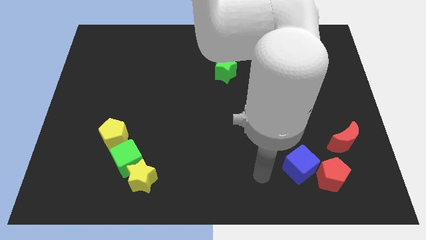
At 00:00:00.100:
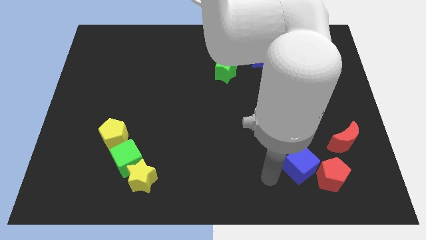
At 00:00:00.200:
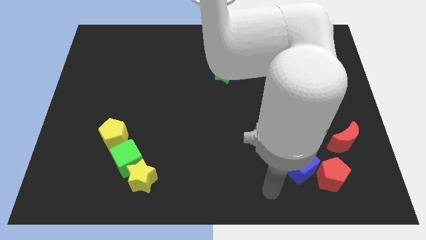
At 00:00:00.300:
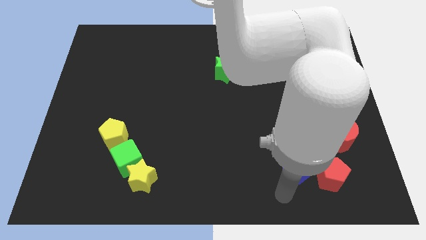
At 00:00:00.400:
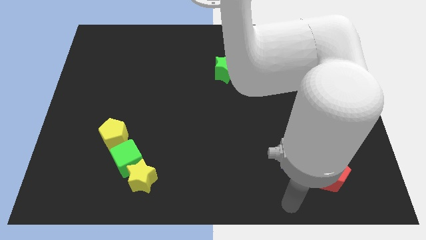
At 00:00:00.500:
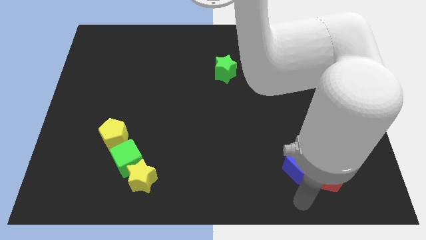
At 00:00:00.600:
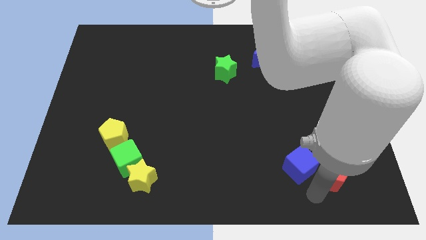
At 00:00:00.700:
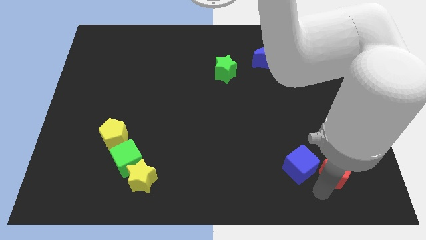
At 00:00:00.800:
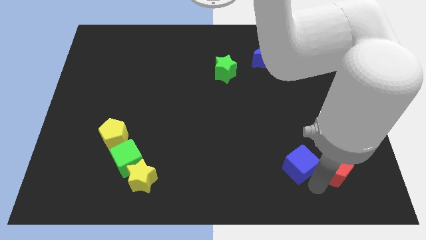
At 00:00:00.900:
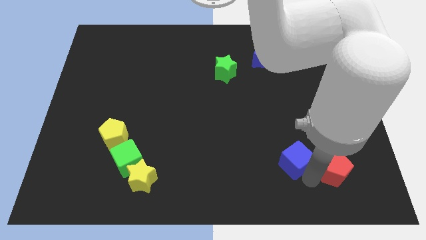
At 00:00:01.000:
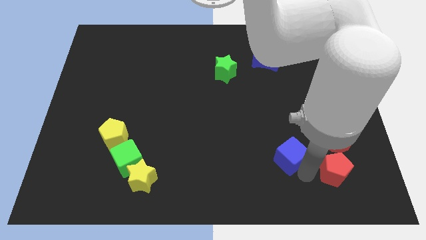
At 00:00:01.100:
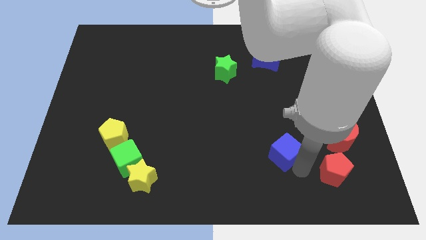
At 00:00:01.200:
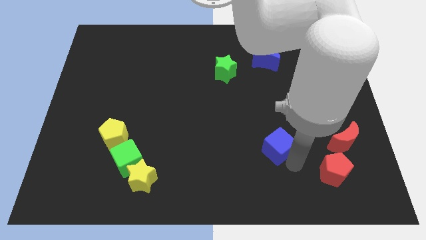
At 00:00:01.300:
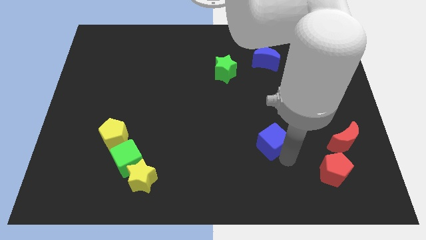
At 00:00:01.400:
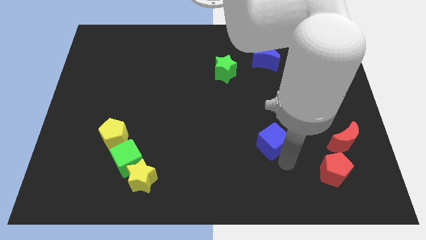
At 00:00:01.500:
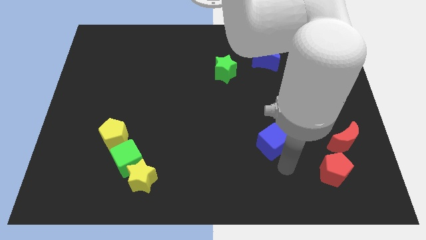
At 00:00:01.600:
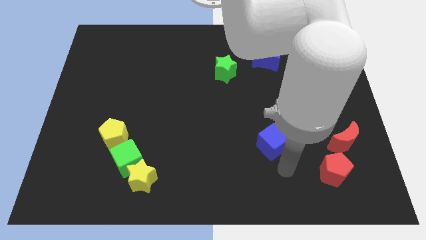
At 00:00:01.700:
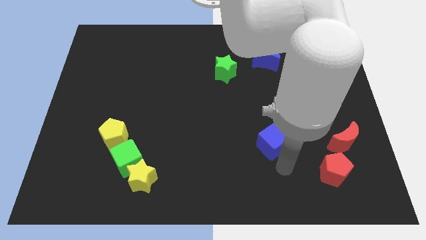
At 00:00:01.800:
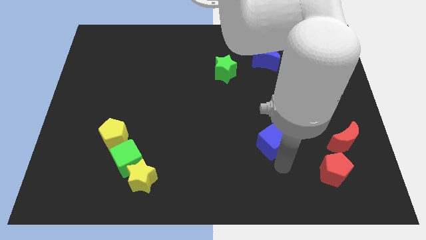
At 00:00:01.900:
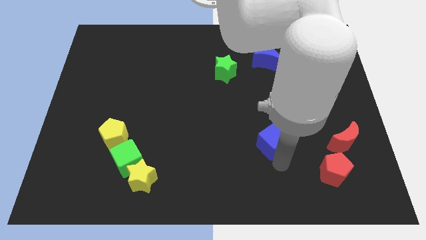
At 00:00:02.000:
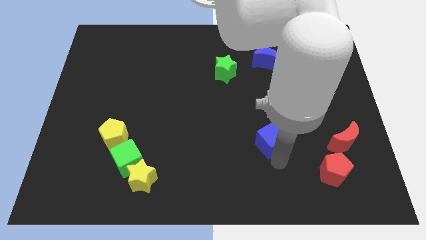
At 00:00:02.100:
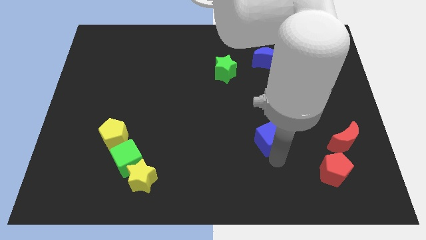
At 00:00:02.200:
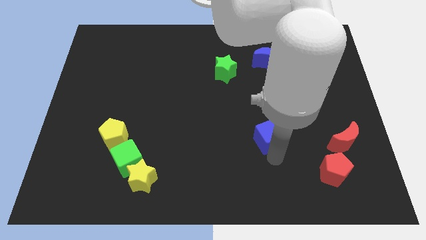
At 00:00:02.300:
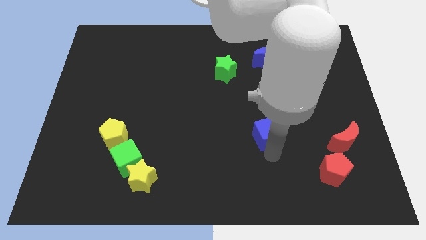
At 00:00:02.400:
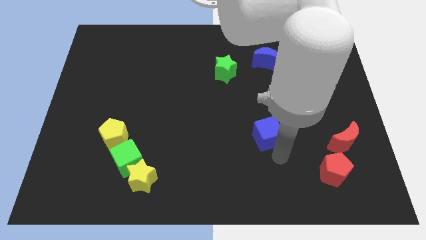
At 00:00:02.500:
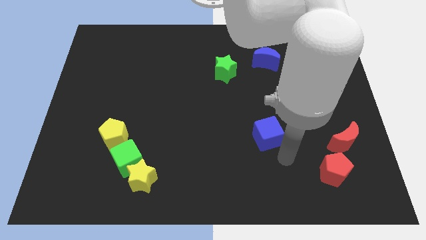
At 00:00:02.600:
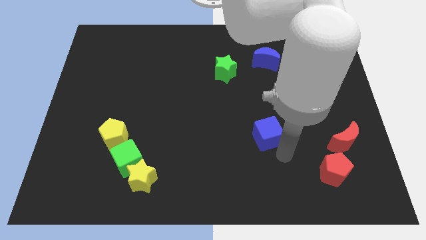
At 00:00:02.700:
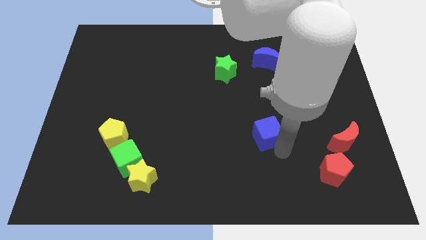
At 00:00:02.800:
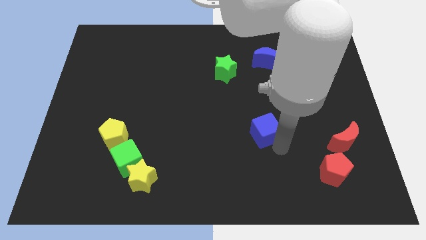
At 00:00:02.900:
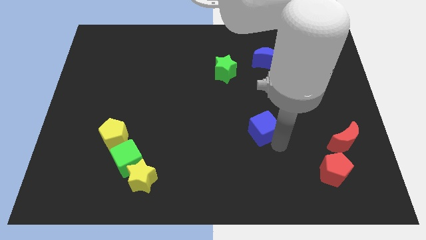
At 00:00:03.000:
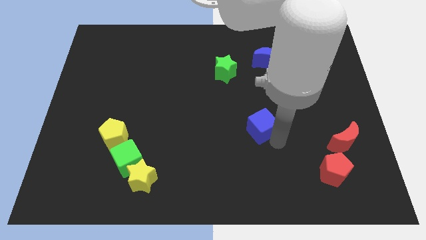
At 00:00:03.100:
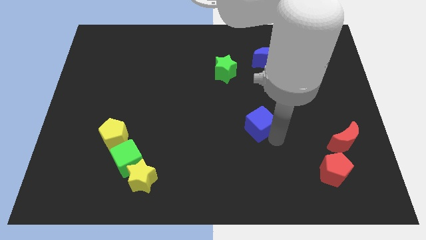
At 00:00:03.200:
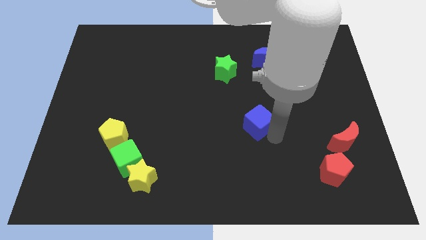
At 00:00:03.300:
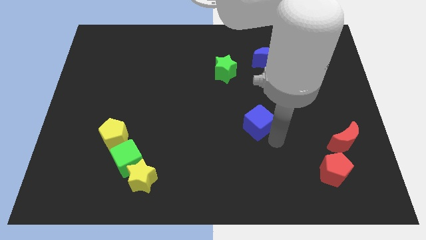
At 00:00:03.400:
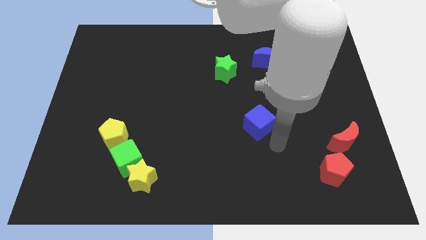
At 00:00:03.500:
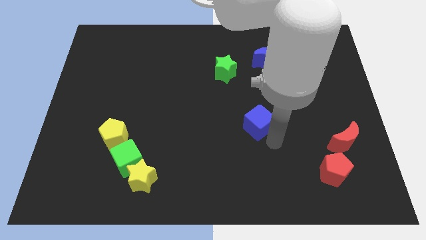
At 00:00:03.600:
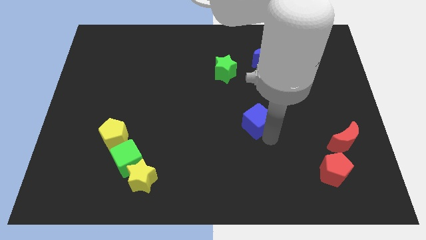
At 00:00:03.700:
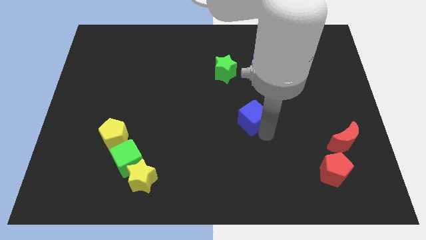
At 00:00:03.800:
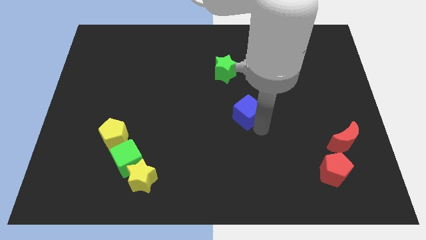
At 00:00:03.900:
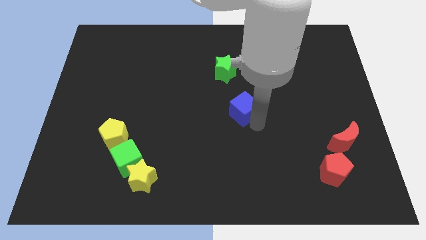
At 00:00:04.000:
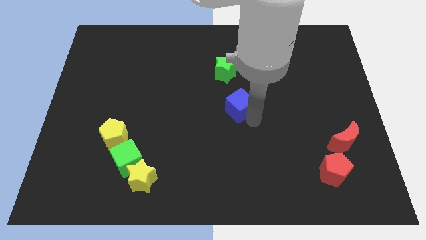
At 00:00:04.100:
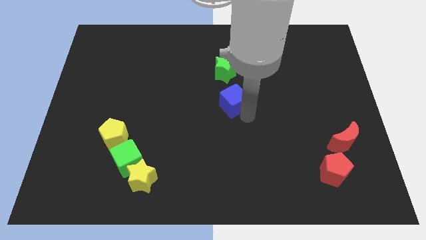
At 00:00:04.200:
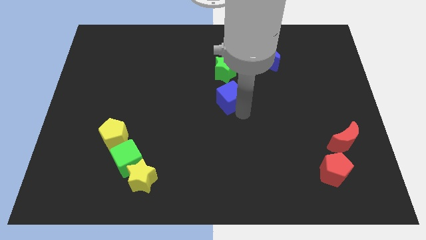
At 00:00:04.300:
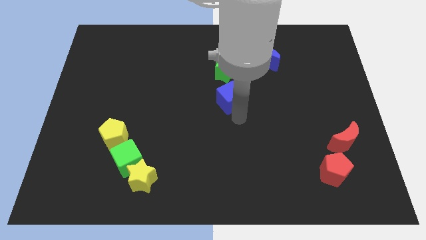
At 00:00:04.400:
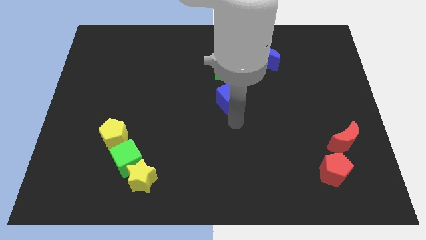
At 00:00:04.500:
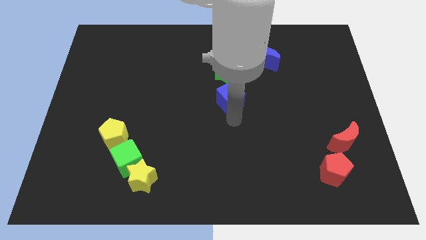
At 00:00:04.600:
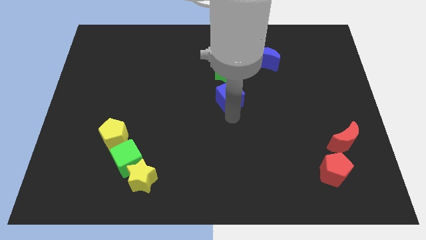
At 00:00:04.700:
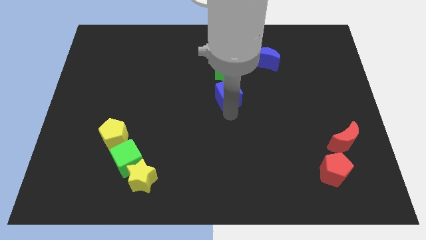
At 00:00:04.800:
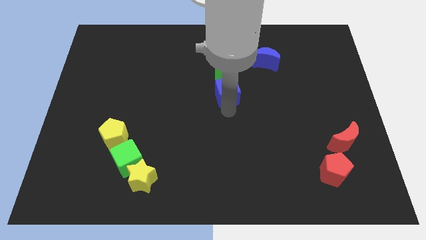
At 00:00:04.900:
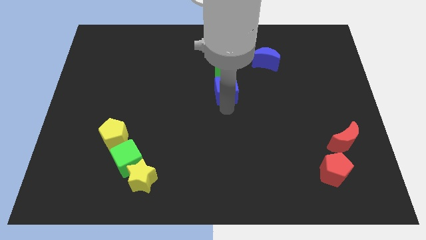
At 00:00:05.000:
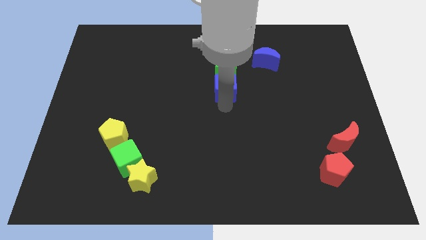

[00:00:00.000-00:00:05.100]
put the blue cube next to the green star

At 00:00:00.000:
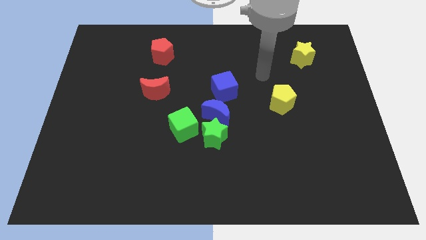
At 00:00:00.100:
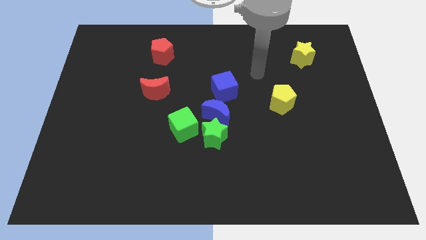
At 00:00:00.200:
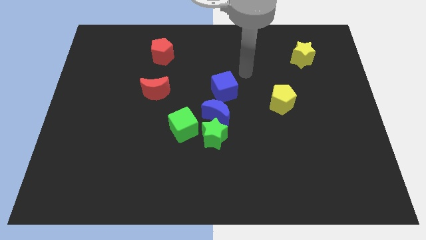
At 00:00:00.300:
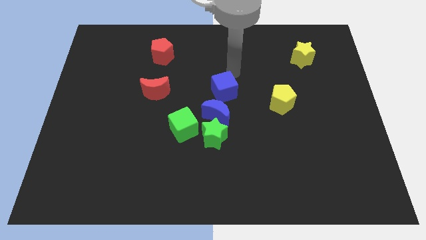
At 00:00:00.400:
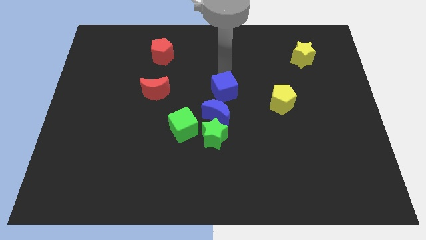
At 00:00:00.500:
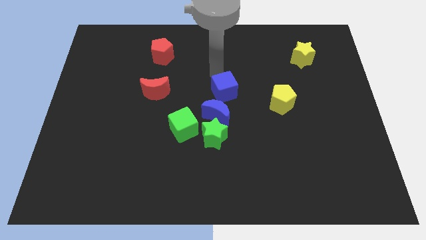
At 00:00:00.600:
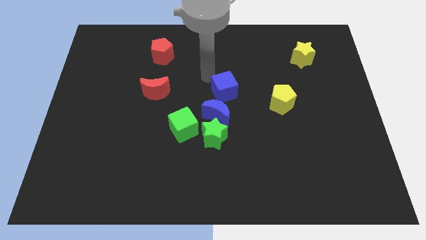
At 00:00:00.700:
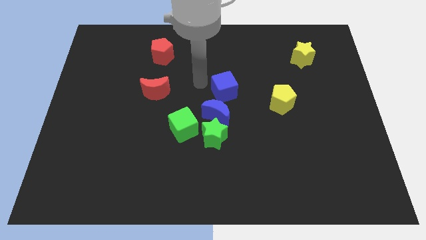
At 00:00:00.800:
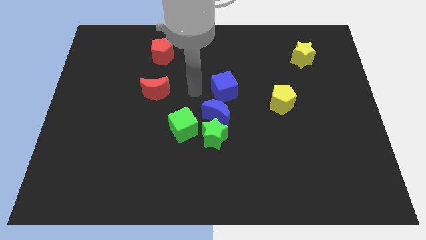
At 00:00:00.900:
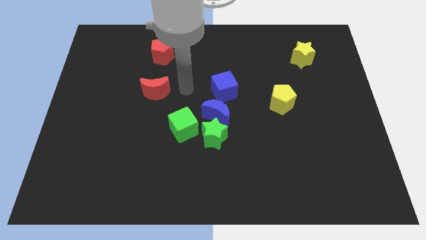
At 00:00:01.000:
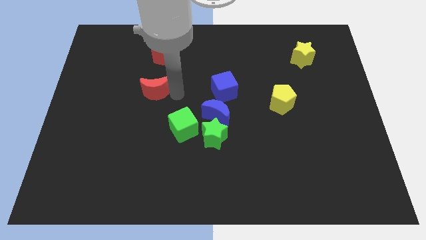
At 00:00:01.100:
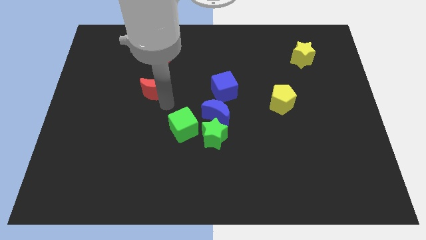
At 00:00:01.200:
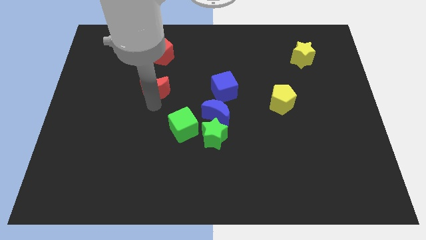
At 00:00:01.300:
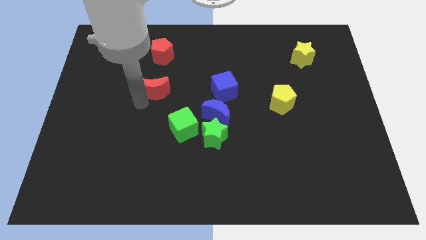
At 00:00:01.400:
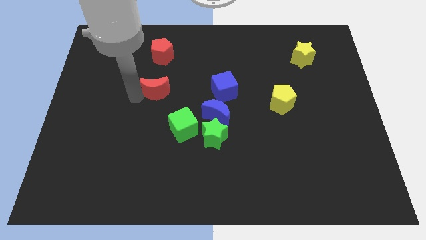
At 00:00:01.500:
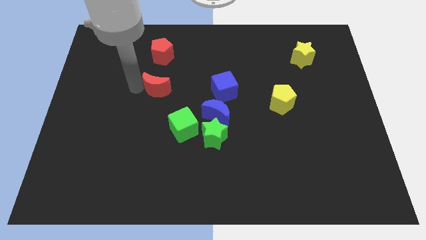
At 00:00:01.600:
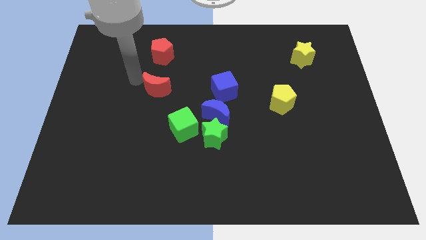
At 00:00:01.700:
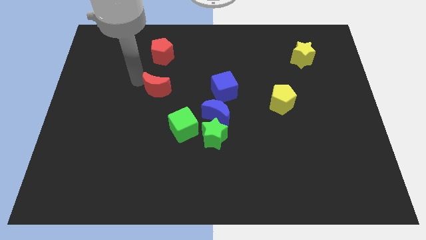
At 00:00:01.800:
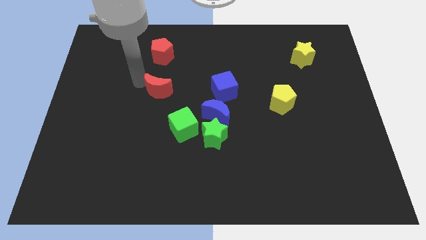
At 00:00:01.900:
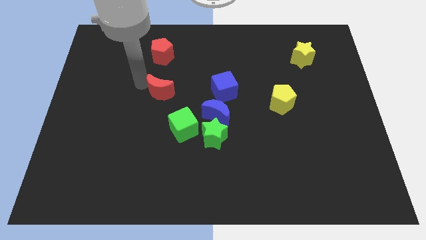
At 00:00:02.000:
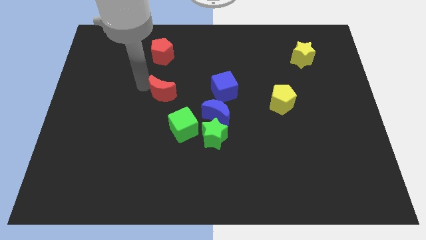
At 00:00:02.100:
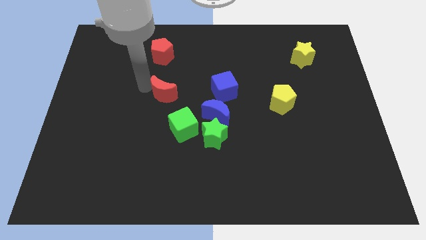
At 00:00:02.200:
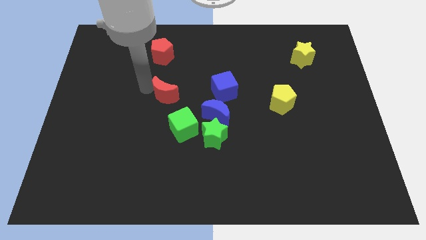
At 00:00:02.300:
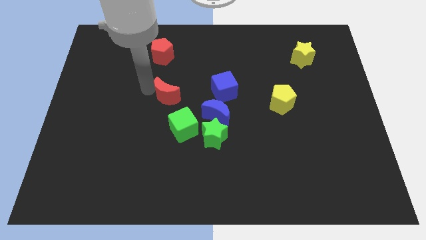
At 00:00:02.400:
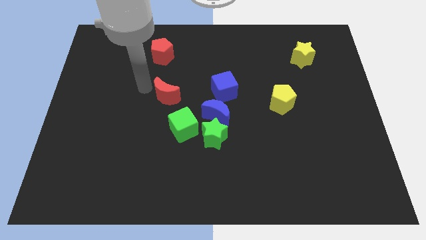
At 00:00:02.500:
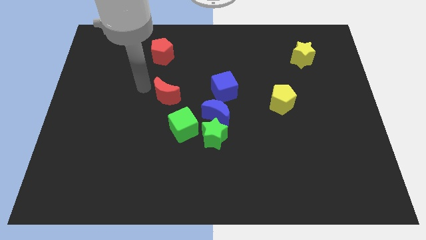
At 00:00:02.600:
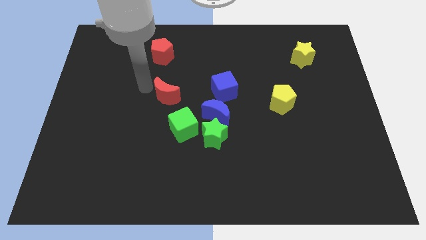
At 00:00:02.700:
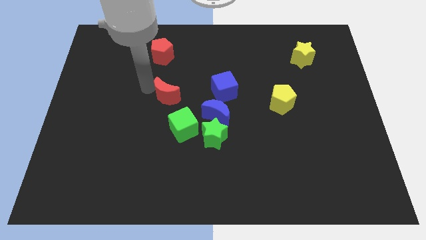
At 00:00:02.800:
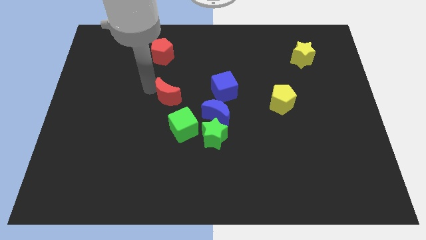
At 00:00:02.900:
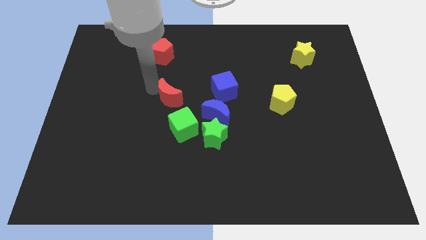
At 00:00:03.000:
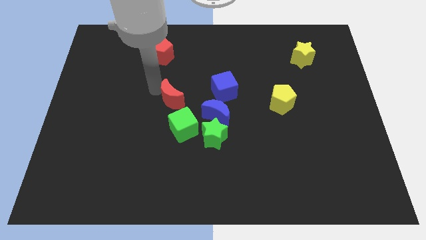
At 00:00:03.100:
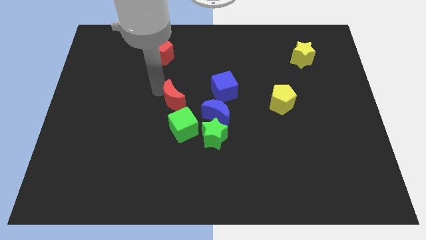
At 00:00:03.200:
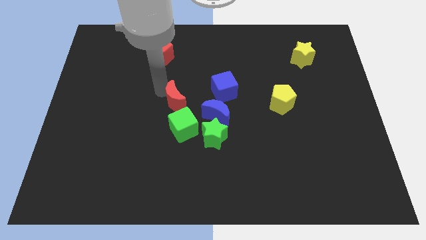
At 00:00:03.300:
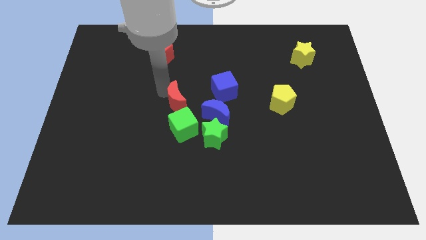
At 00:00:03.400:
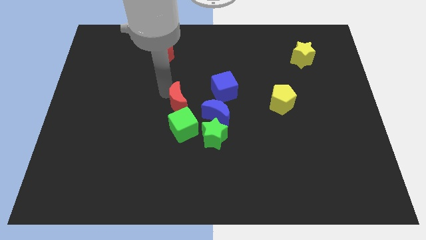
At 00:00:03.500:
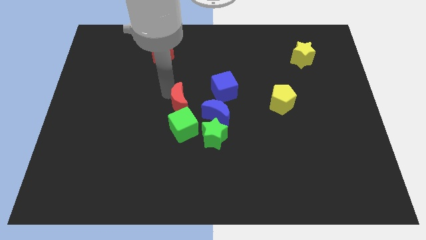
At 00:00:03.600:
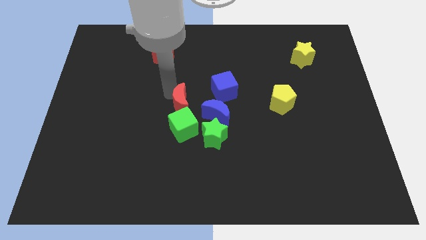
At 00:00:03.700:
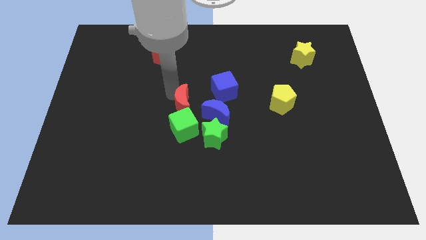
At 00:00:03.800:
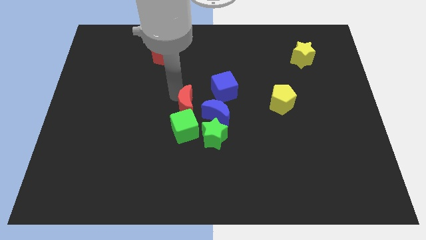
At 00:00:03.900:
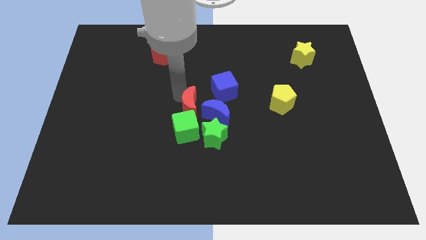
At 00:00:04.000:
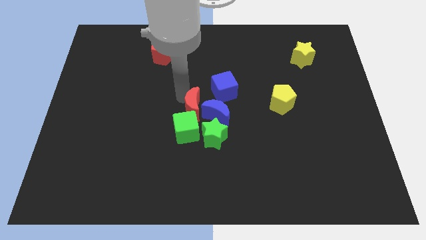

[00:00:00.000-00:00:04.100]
put the red moon next to the blue moon
